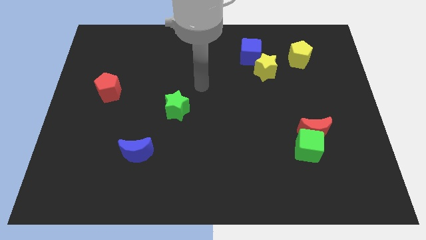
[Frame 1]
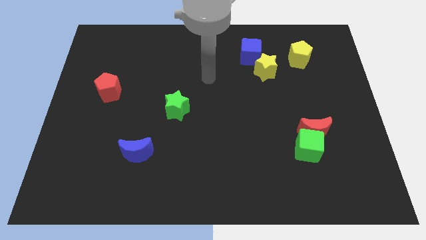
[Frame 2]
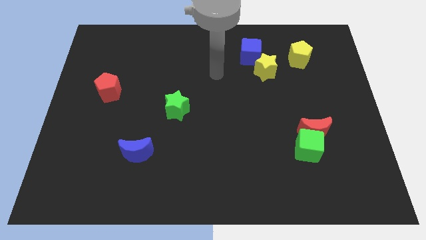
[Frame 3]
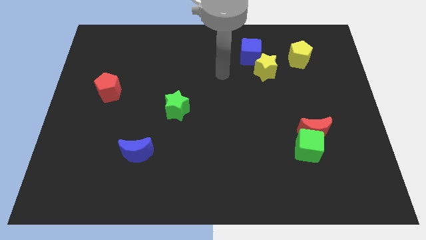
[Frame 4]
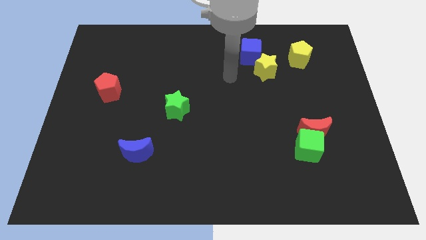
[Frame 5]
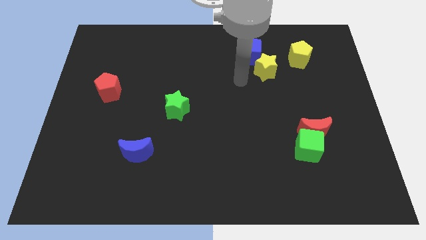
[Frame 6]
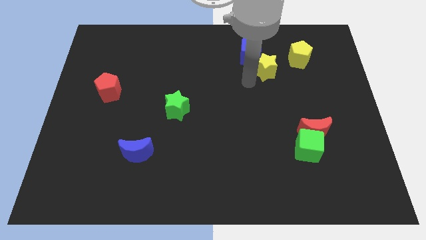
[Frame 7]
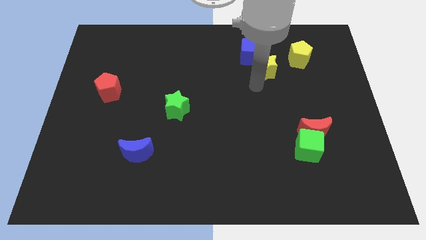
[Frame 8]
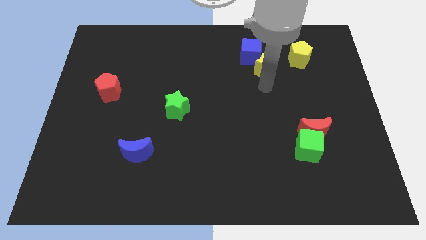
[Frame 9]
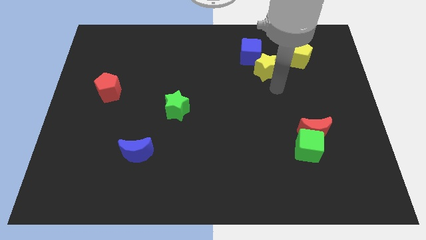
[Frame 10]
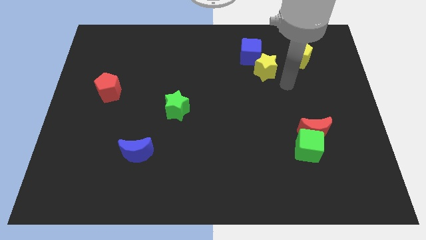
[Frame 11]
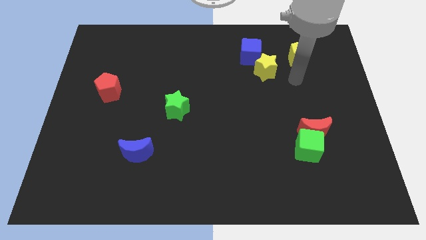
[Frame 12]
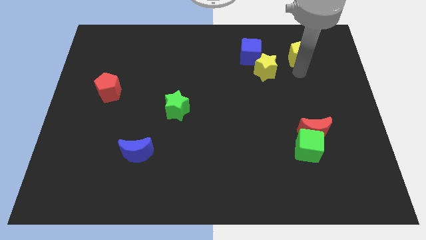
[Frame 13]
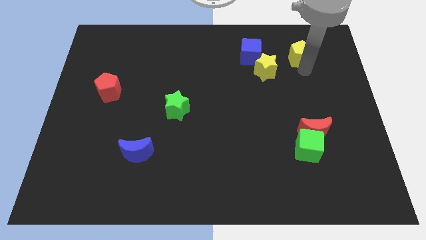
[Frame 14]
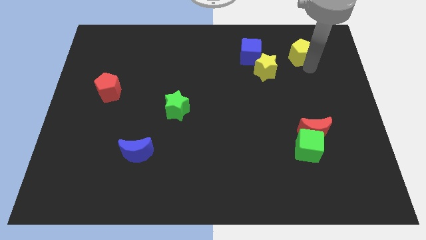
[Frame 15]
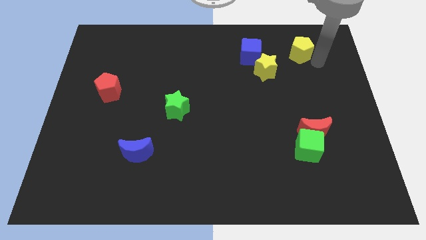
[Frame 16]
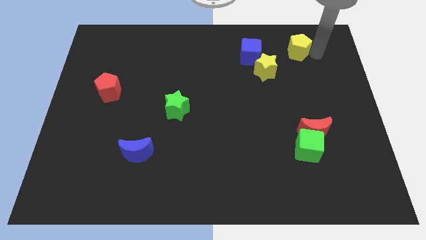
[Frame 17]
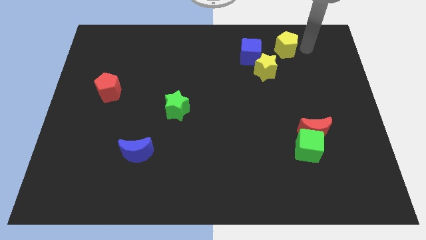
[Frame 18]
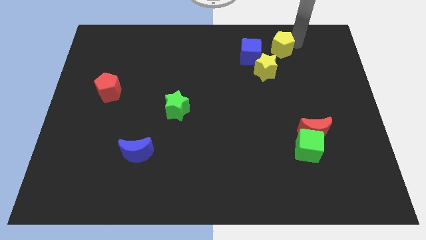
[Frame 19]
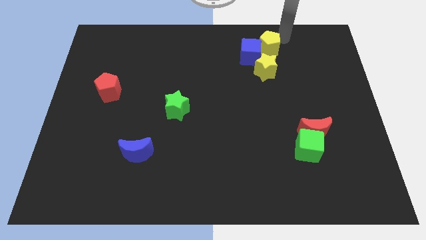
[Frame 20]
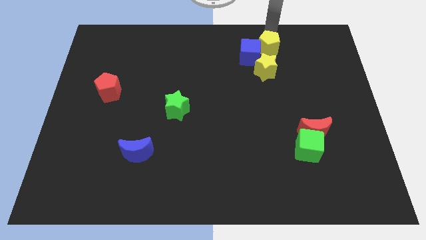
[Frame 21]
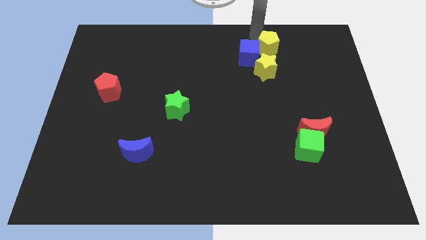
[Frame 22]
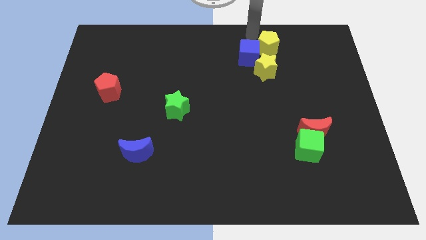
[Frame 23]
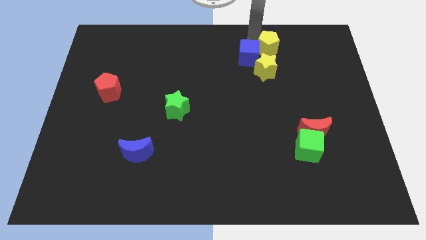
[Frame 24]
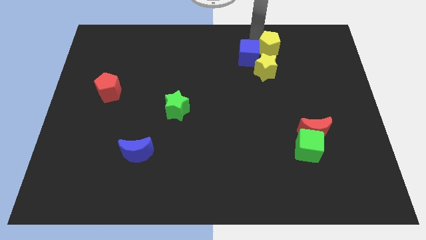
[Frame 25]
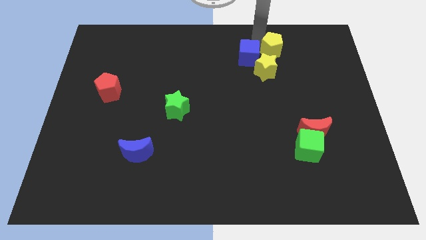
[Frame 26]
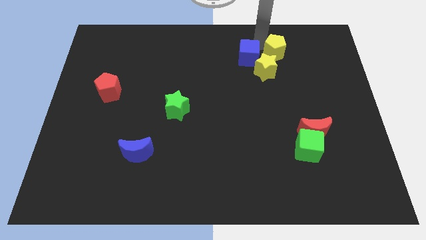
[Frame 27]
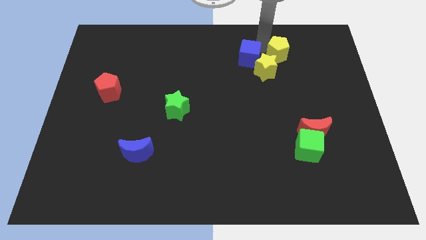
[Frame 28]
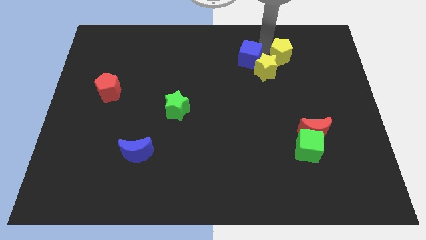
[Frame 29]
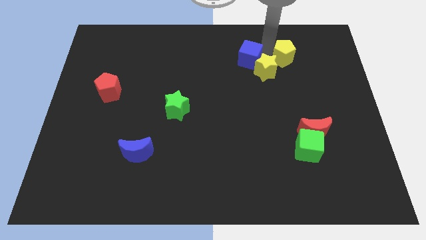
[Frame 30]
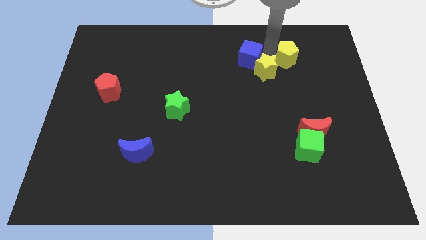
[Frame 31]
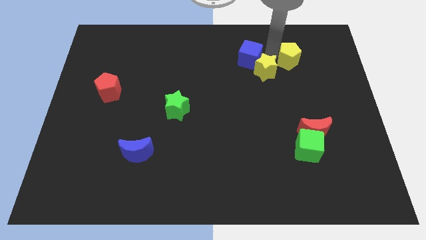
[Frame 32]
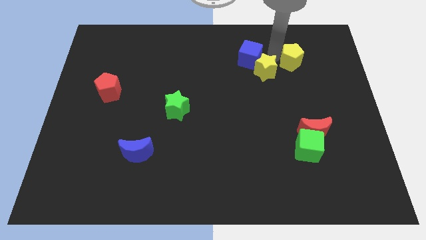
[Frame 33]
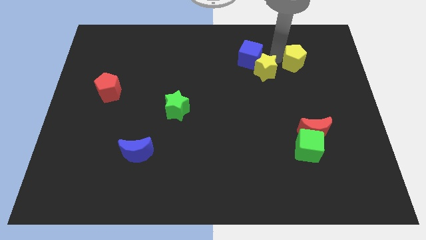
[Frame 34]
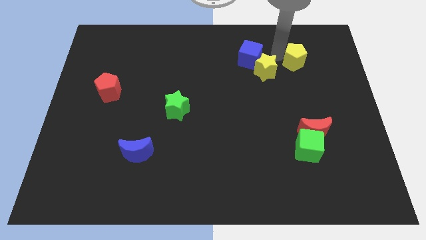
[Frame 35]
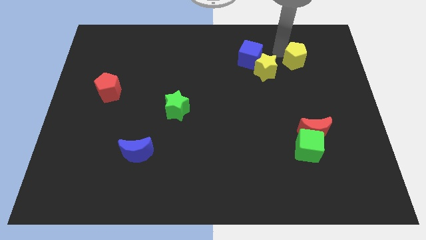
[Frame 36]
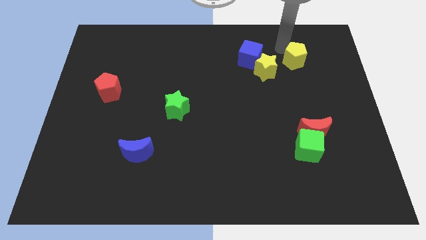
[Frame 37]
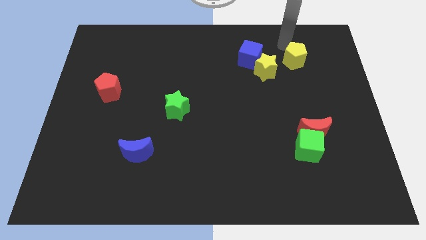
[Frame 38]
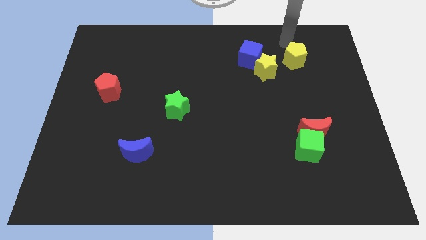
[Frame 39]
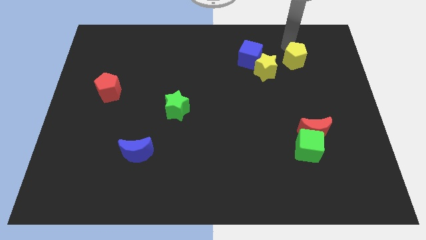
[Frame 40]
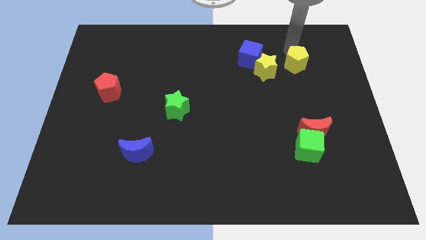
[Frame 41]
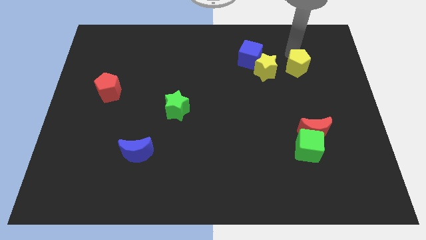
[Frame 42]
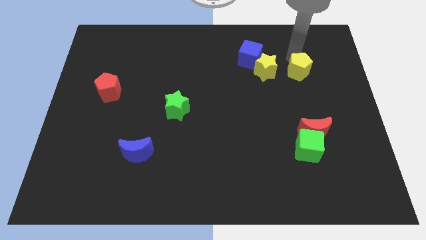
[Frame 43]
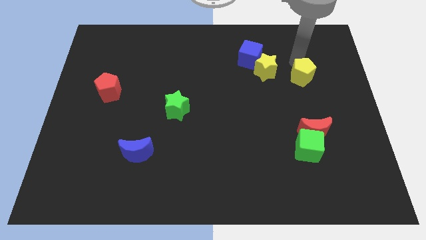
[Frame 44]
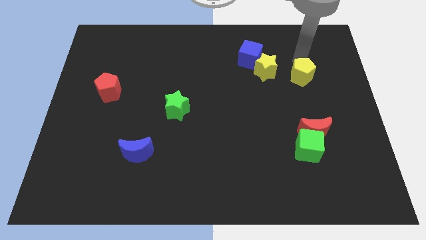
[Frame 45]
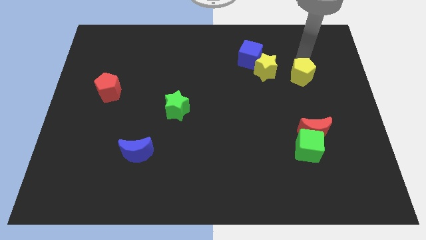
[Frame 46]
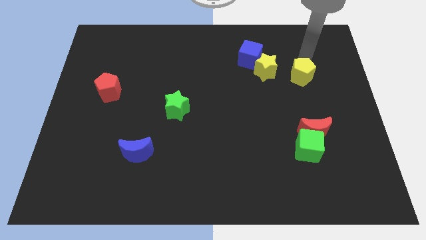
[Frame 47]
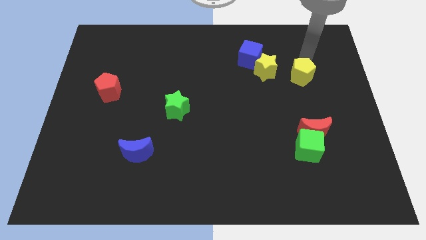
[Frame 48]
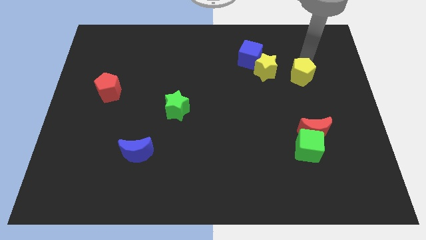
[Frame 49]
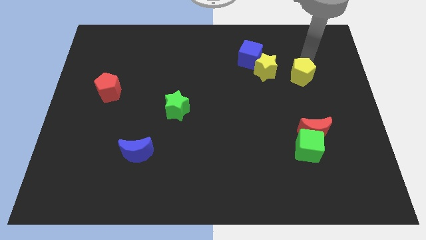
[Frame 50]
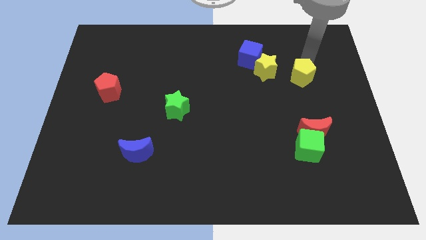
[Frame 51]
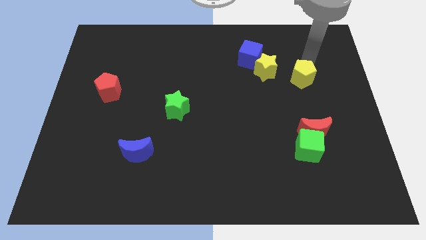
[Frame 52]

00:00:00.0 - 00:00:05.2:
slightly slide the yellow pentagon downwards

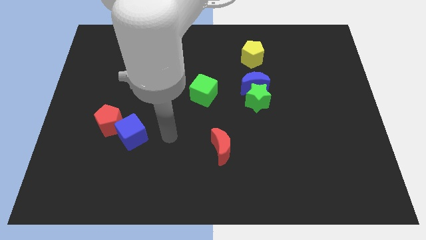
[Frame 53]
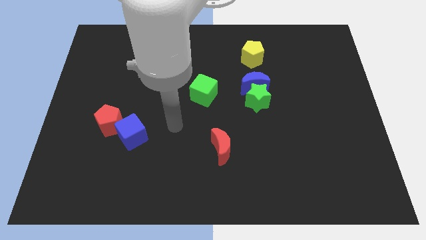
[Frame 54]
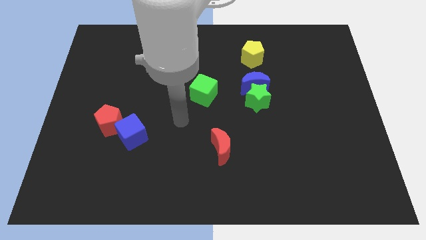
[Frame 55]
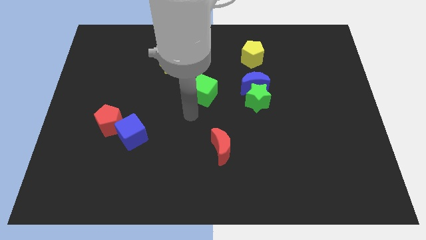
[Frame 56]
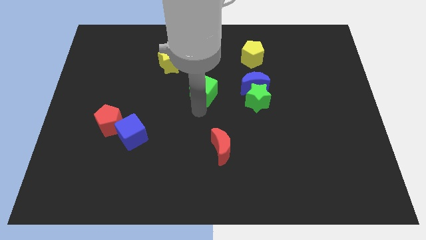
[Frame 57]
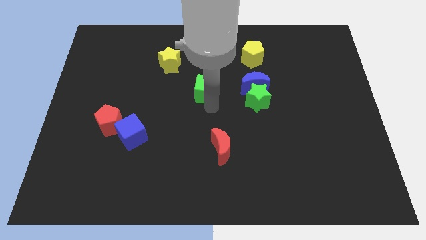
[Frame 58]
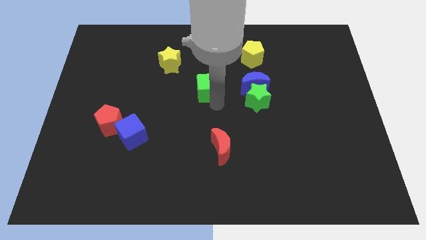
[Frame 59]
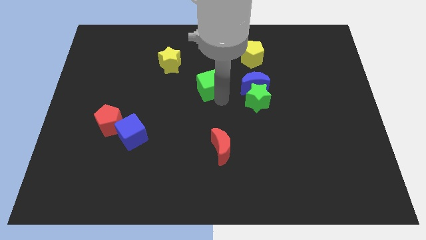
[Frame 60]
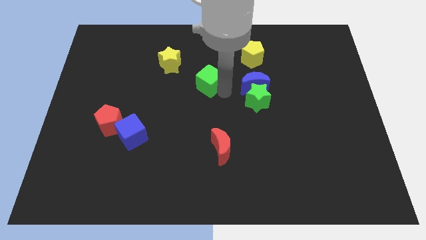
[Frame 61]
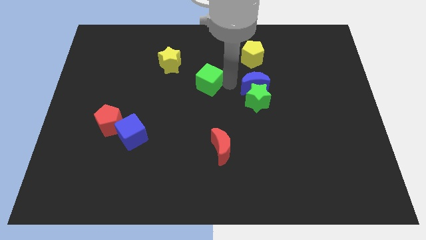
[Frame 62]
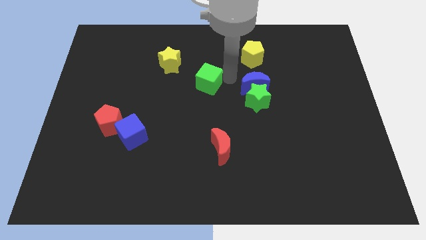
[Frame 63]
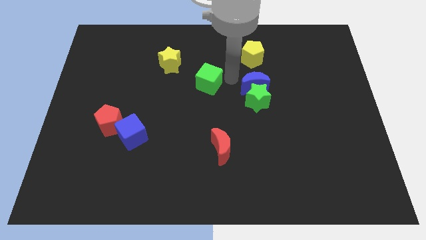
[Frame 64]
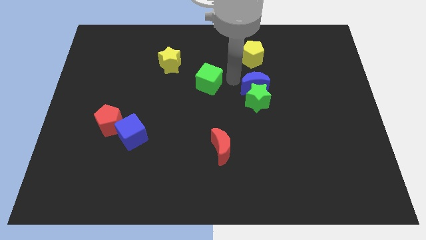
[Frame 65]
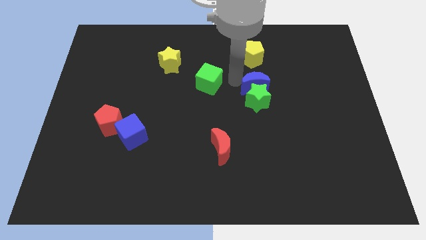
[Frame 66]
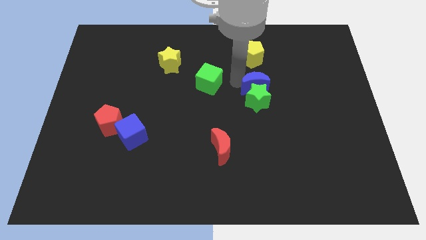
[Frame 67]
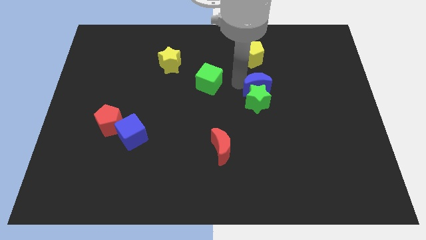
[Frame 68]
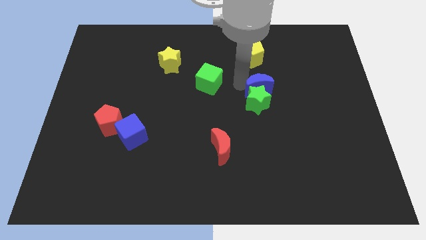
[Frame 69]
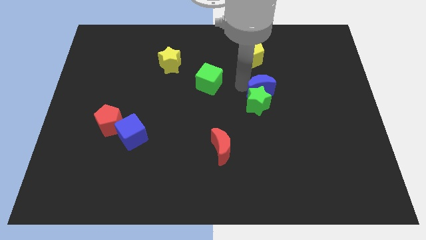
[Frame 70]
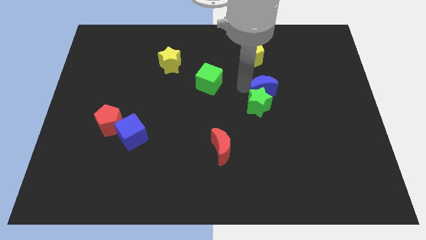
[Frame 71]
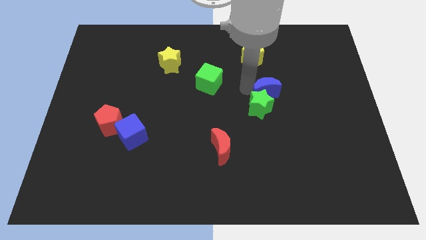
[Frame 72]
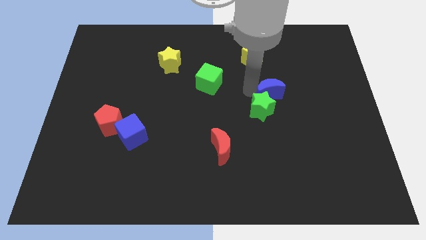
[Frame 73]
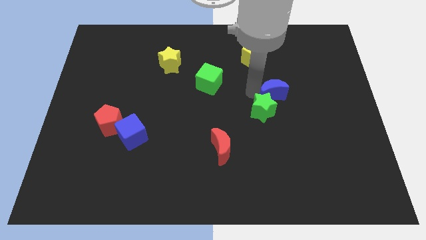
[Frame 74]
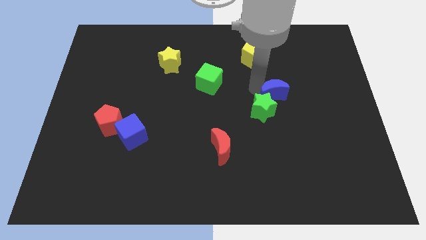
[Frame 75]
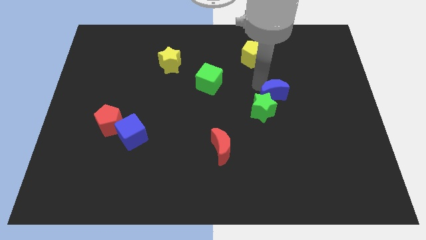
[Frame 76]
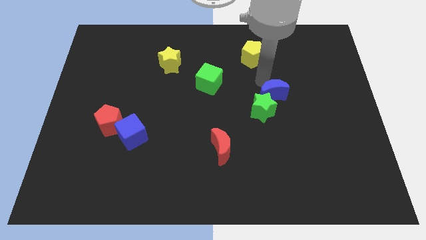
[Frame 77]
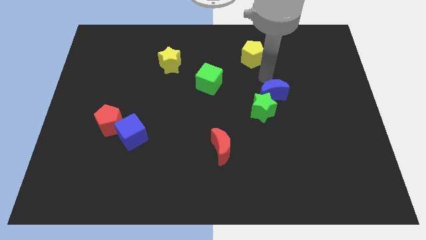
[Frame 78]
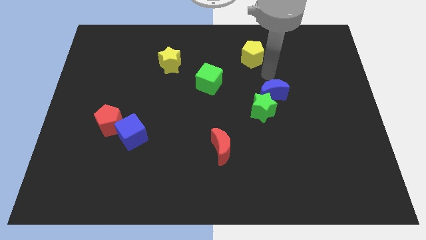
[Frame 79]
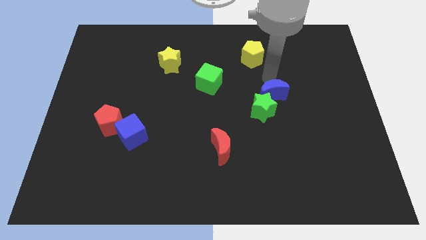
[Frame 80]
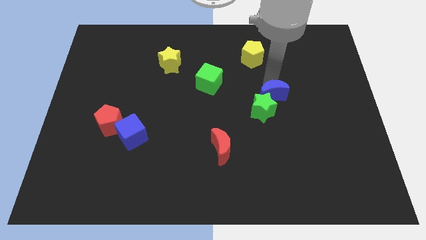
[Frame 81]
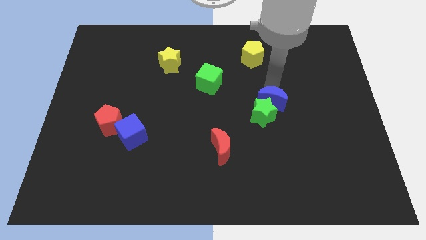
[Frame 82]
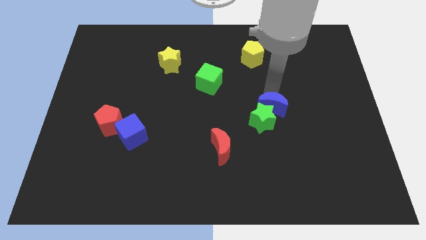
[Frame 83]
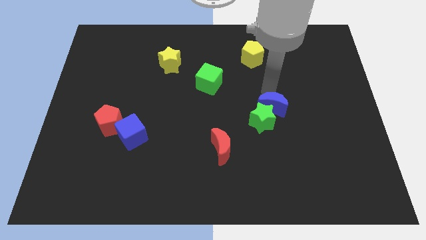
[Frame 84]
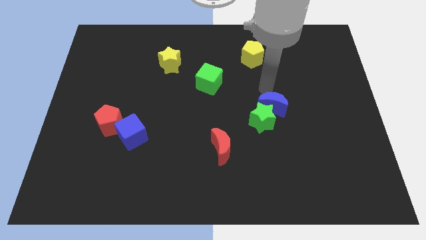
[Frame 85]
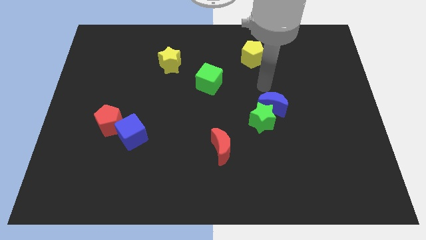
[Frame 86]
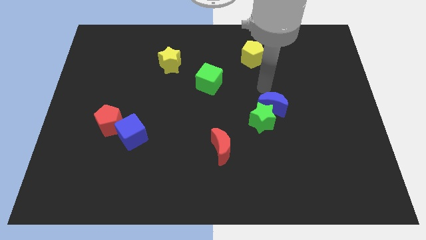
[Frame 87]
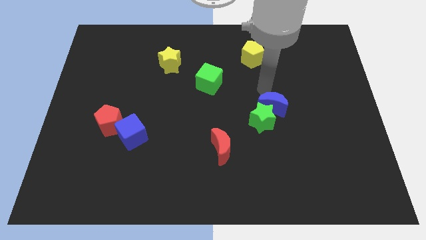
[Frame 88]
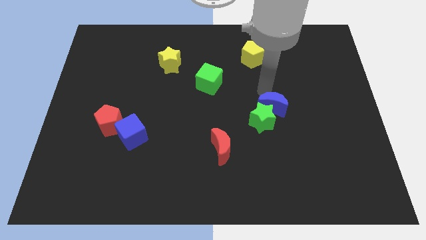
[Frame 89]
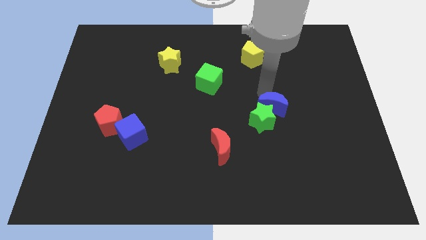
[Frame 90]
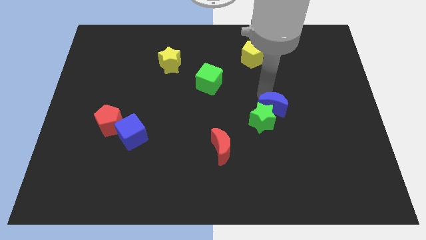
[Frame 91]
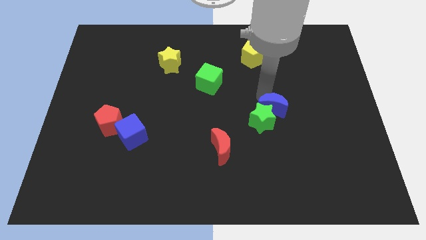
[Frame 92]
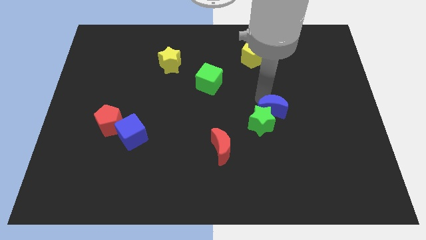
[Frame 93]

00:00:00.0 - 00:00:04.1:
move the blue moon somewhat down
